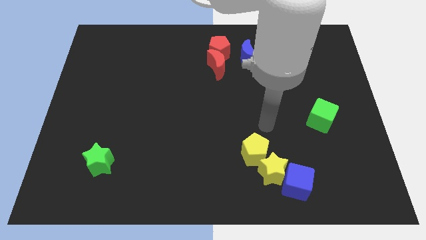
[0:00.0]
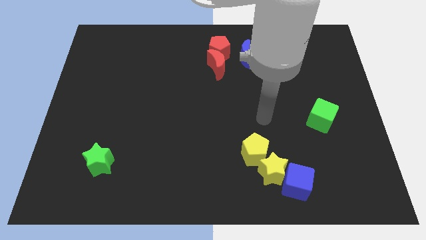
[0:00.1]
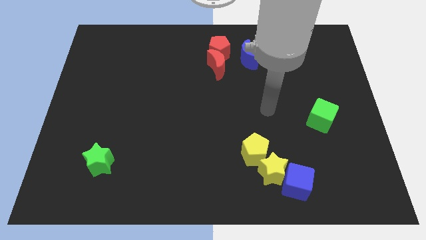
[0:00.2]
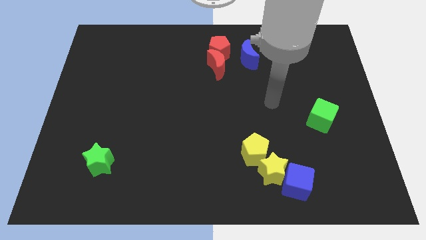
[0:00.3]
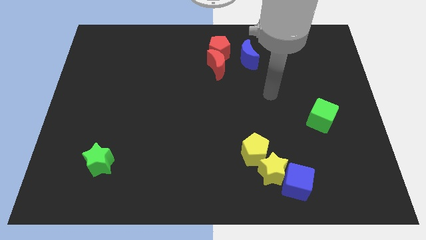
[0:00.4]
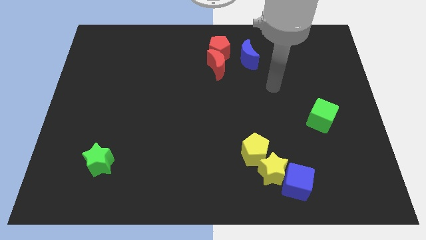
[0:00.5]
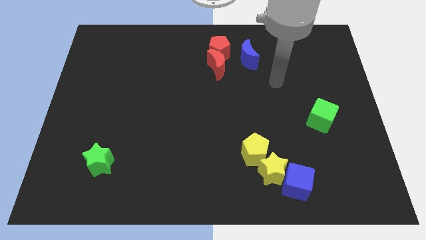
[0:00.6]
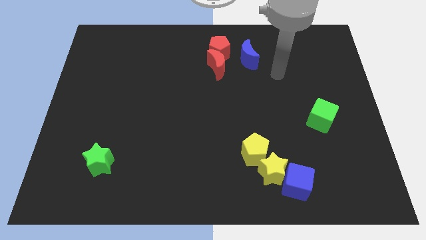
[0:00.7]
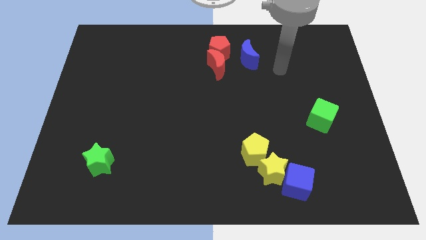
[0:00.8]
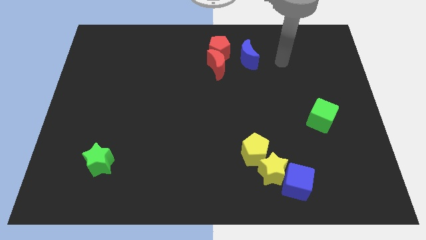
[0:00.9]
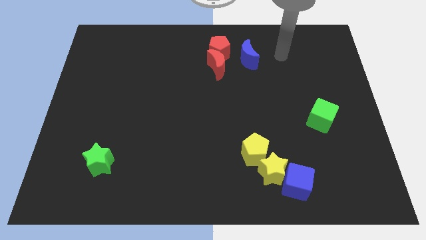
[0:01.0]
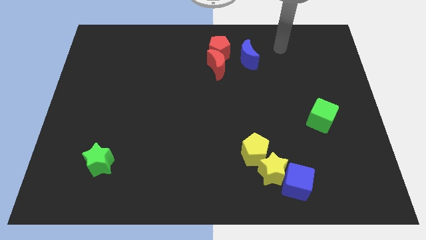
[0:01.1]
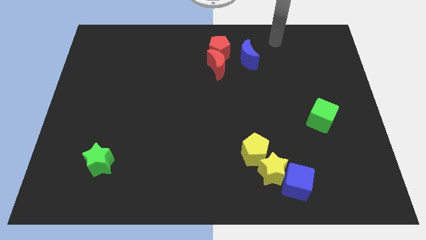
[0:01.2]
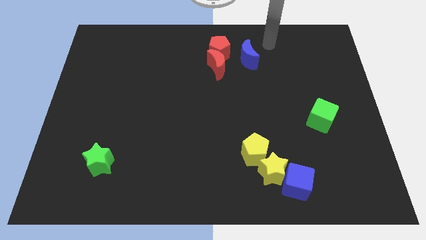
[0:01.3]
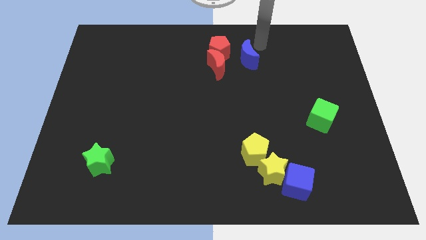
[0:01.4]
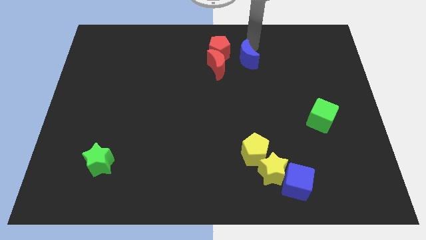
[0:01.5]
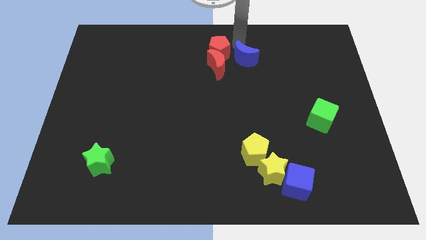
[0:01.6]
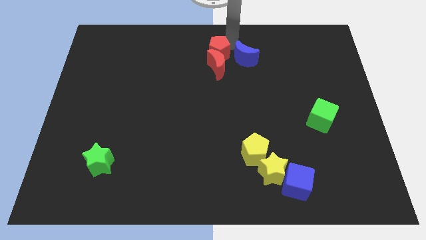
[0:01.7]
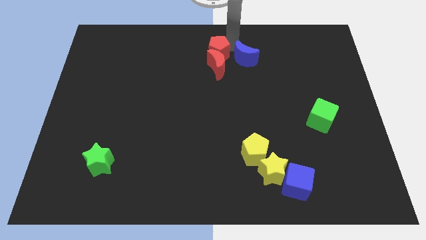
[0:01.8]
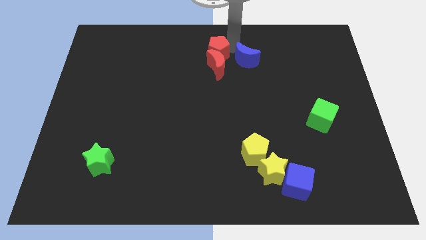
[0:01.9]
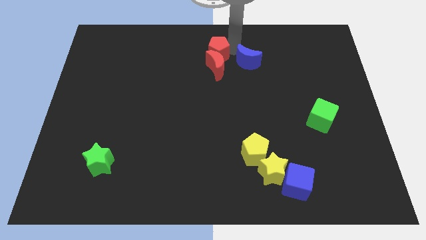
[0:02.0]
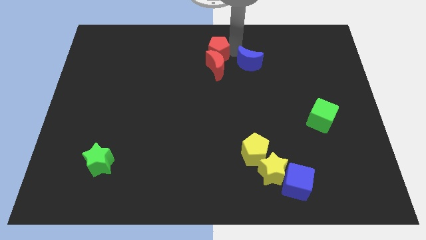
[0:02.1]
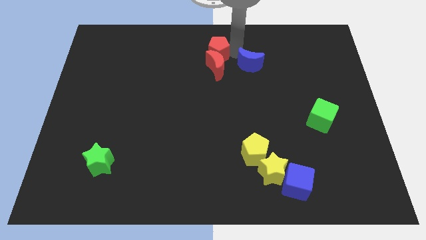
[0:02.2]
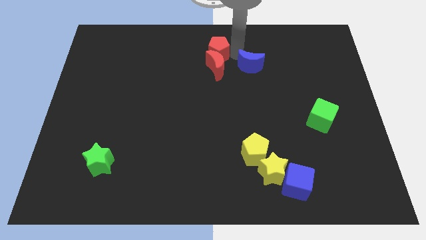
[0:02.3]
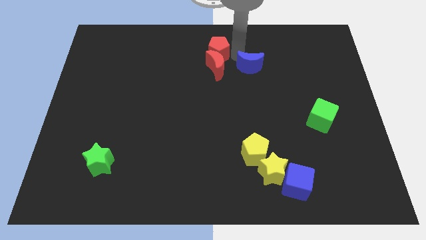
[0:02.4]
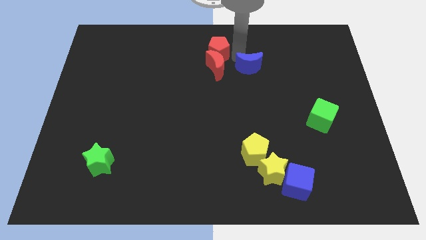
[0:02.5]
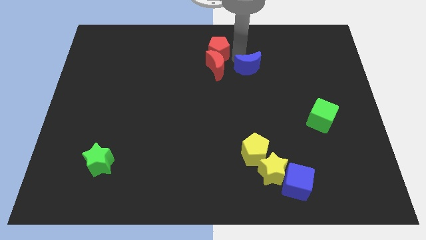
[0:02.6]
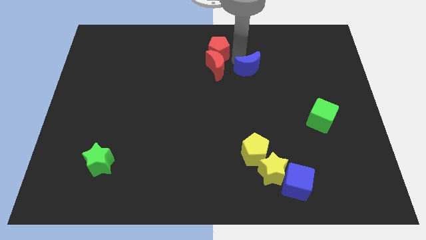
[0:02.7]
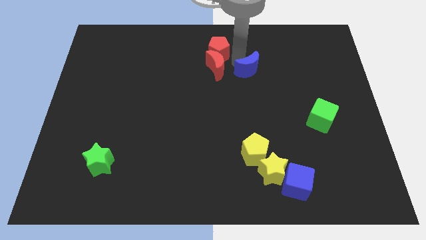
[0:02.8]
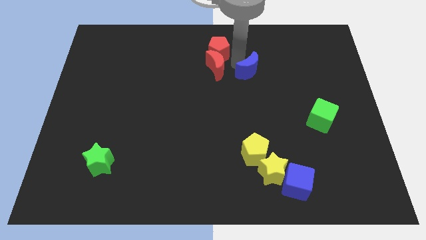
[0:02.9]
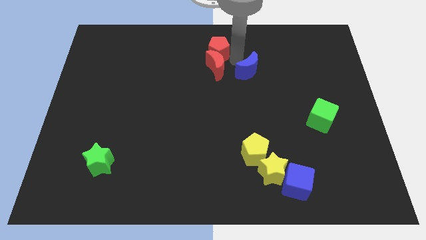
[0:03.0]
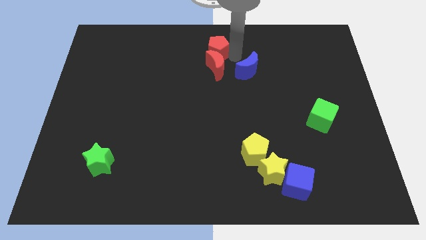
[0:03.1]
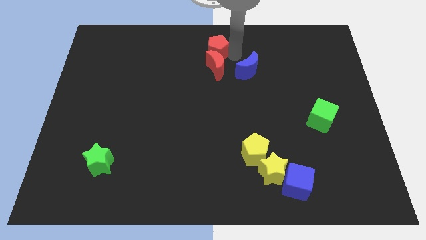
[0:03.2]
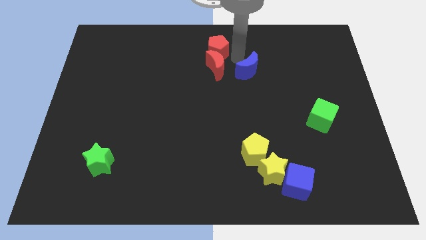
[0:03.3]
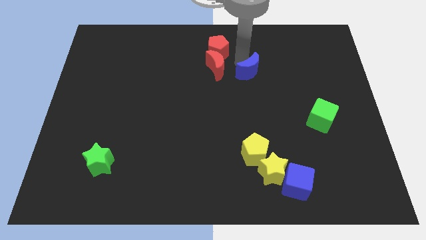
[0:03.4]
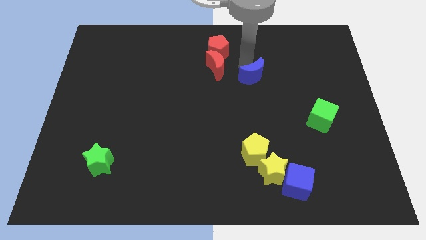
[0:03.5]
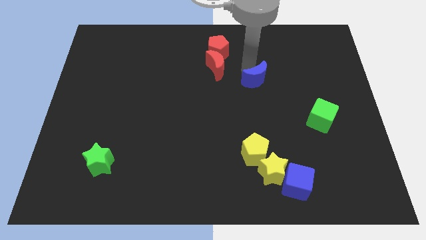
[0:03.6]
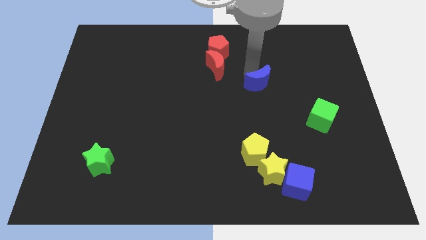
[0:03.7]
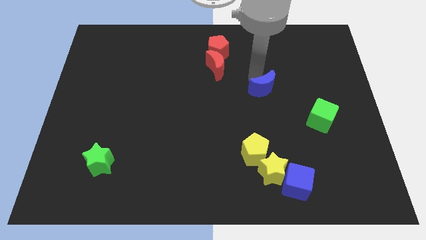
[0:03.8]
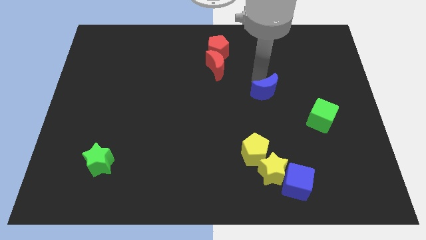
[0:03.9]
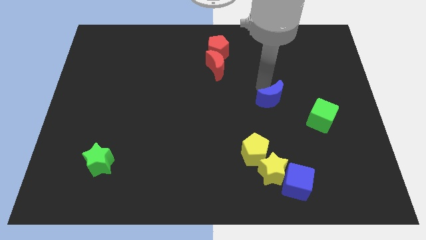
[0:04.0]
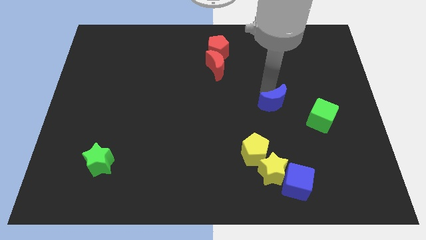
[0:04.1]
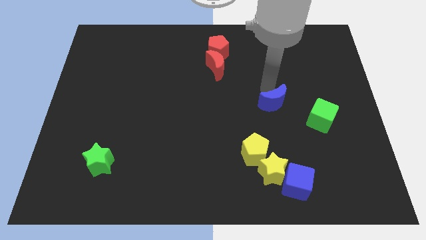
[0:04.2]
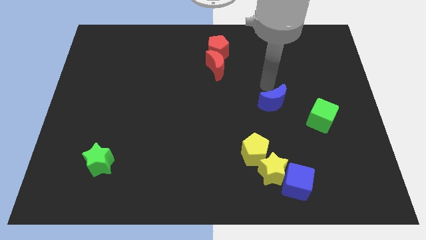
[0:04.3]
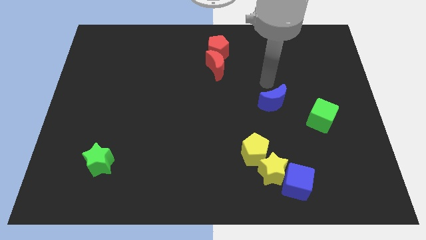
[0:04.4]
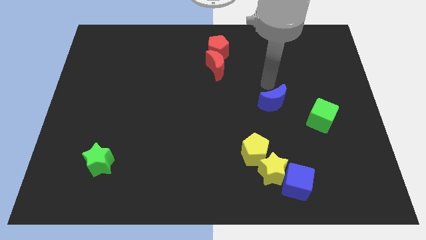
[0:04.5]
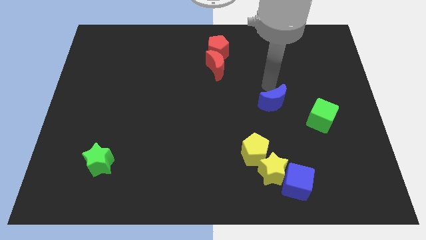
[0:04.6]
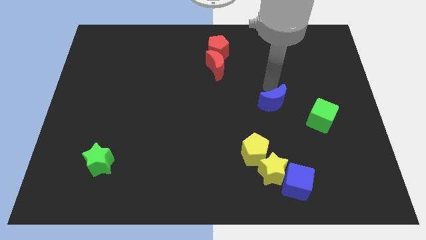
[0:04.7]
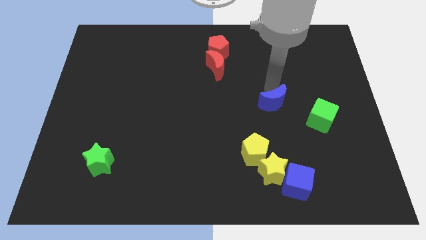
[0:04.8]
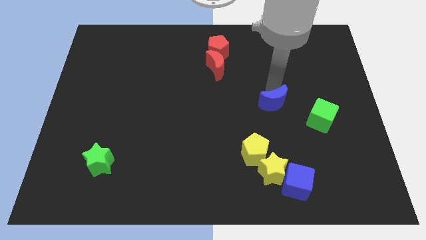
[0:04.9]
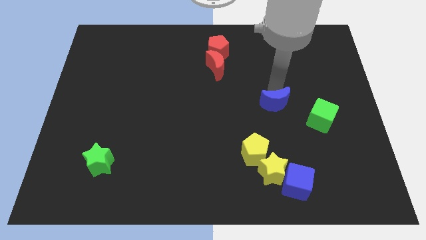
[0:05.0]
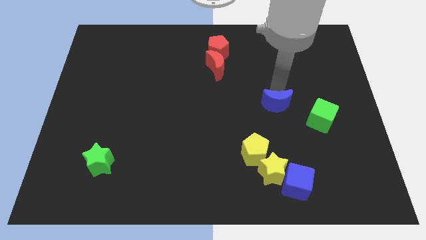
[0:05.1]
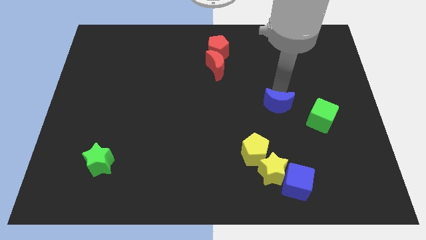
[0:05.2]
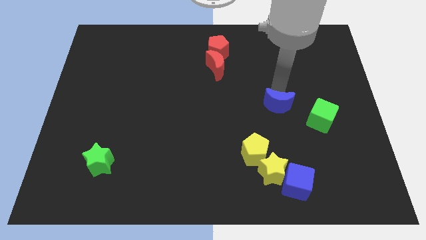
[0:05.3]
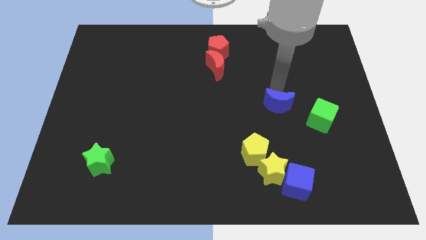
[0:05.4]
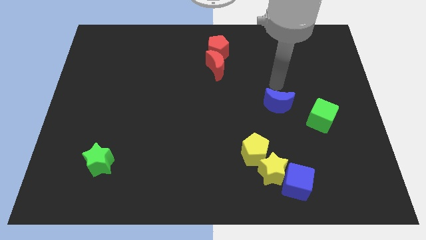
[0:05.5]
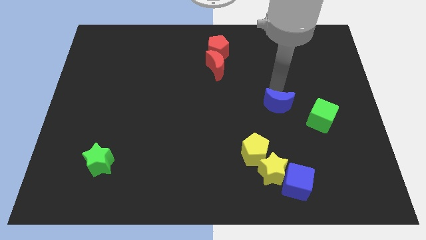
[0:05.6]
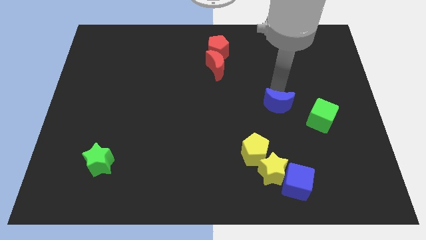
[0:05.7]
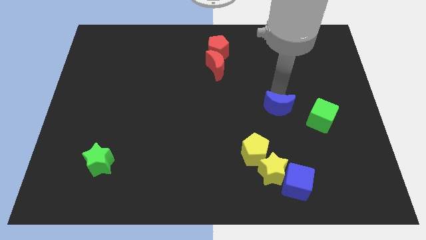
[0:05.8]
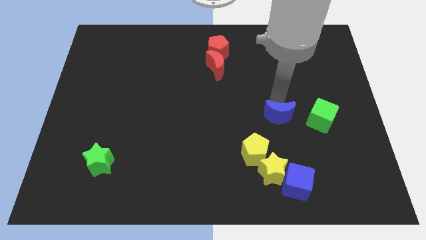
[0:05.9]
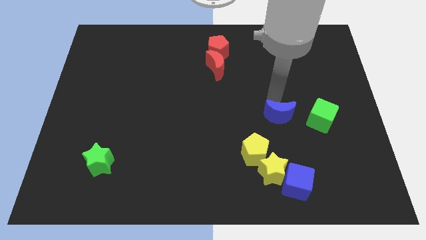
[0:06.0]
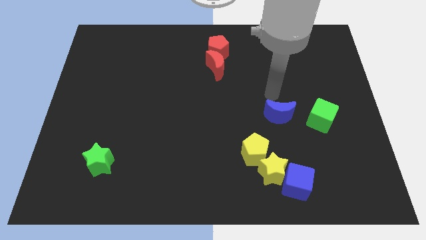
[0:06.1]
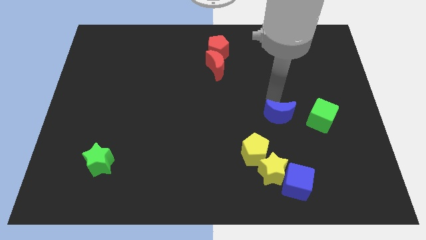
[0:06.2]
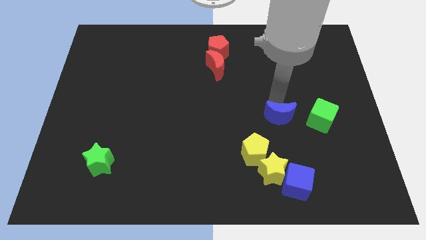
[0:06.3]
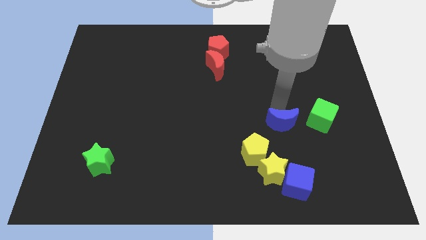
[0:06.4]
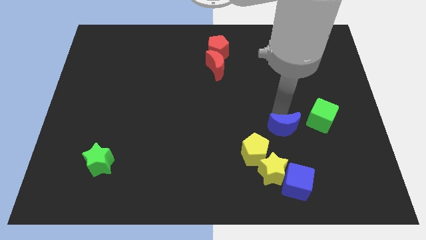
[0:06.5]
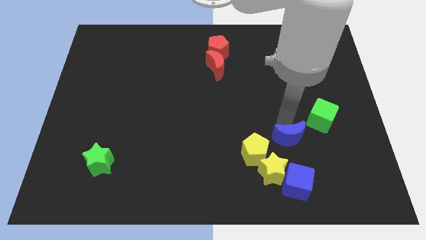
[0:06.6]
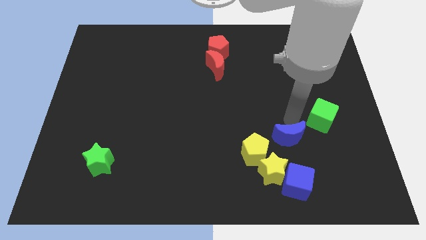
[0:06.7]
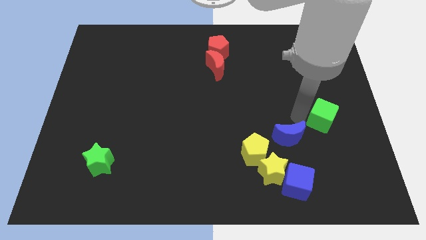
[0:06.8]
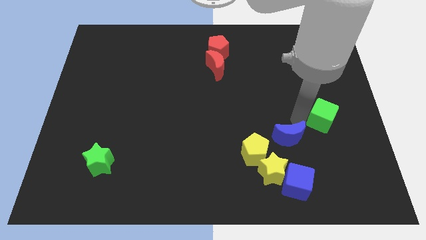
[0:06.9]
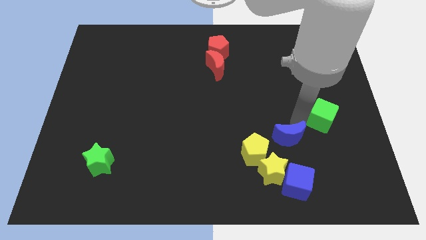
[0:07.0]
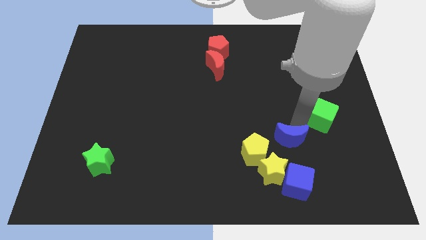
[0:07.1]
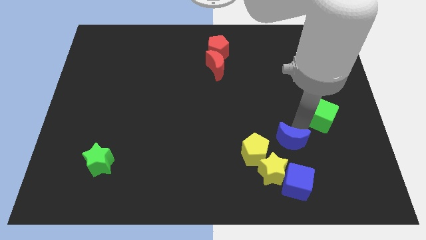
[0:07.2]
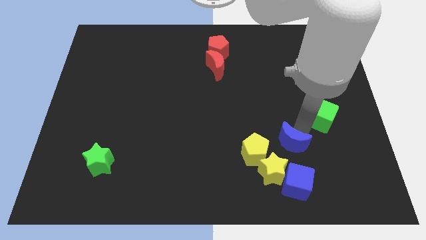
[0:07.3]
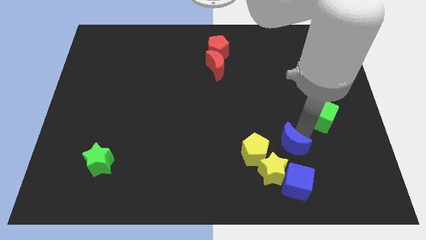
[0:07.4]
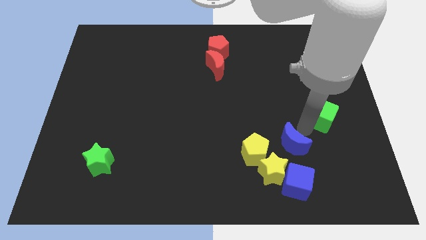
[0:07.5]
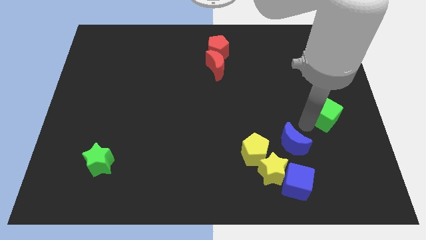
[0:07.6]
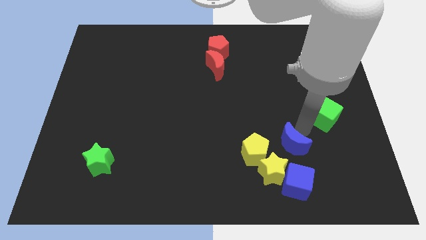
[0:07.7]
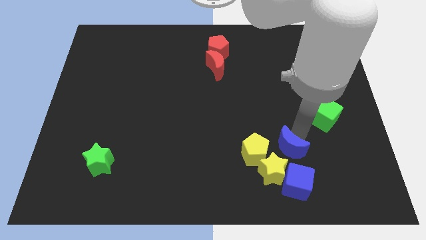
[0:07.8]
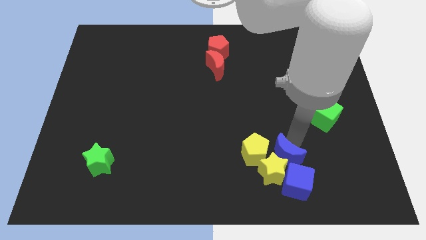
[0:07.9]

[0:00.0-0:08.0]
put the blue moon next to the yellow star
